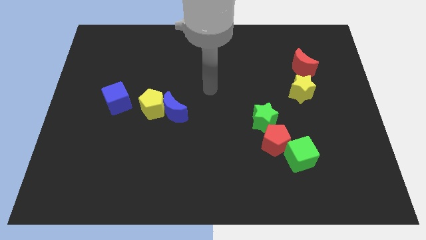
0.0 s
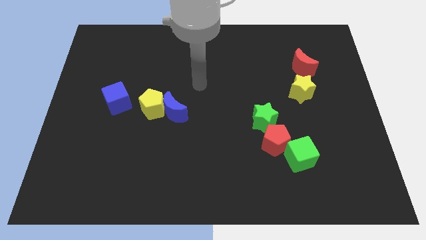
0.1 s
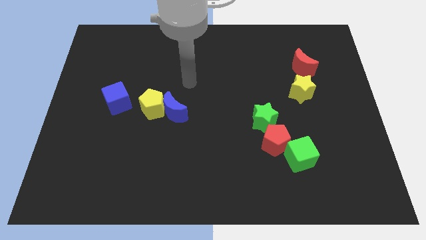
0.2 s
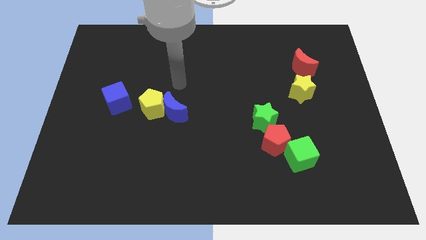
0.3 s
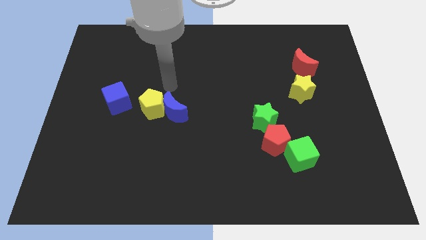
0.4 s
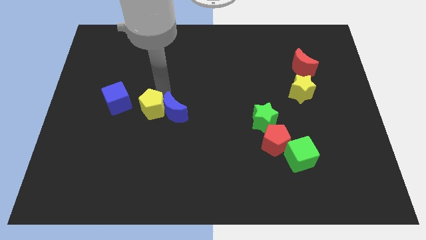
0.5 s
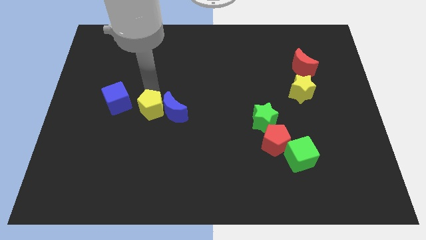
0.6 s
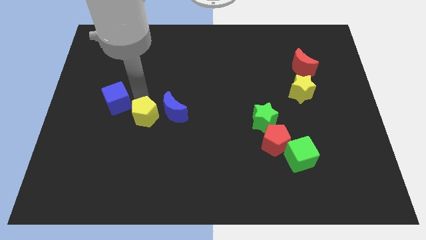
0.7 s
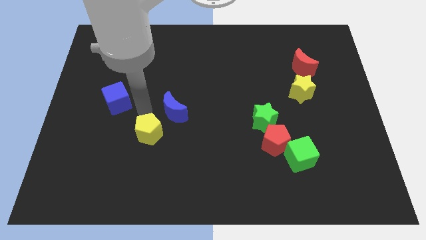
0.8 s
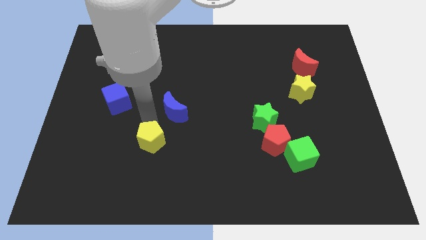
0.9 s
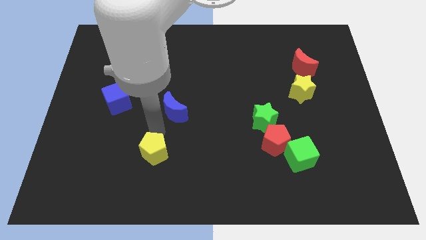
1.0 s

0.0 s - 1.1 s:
separate the blue moon from the yellow pentagon

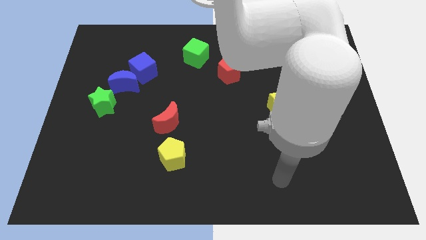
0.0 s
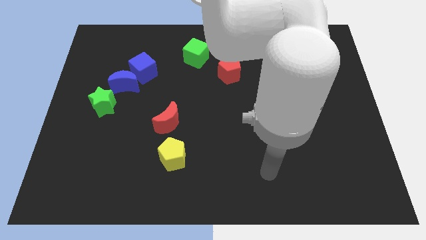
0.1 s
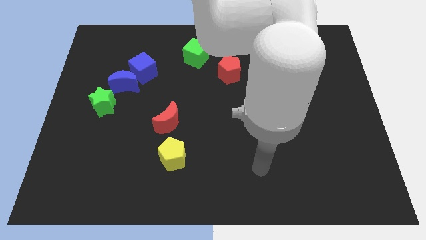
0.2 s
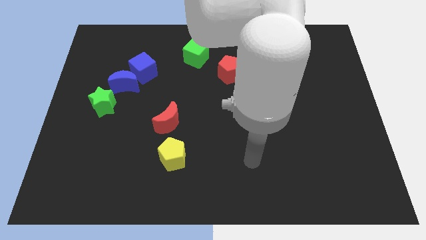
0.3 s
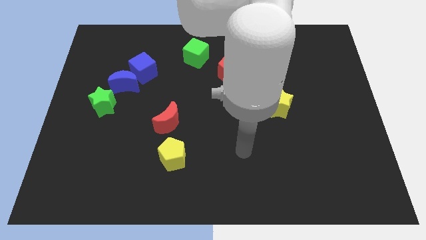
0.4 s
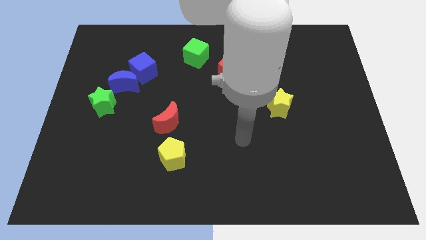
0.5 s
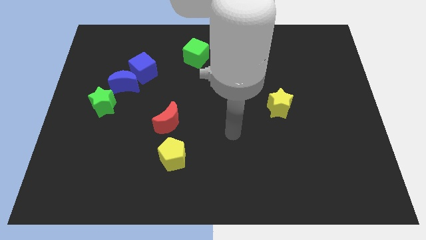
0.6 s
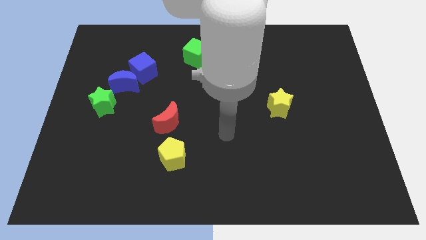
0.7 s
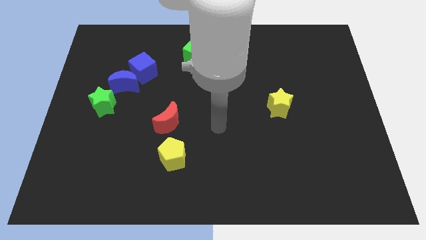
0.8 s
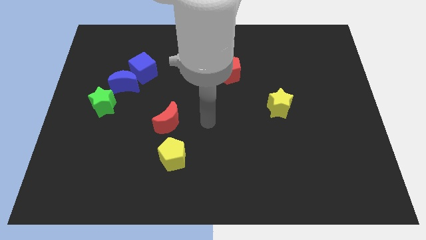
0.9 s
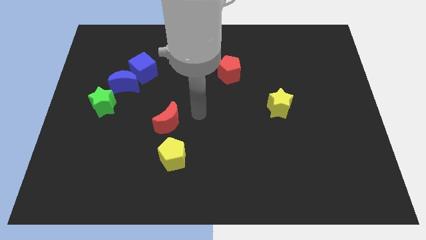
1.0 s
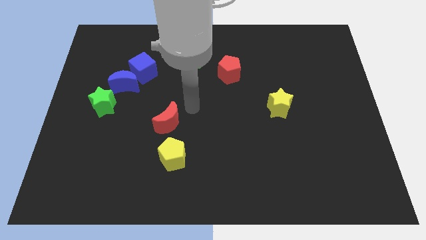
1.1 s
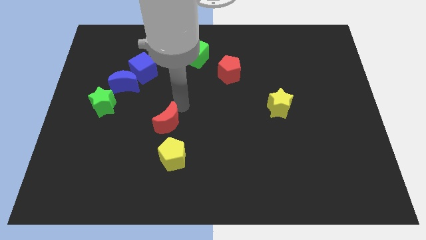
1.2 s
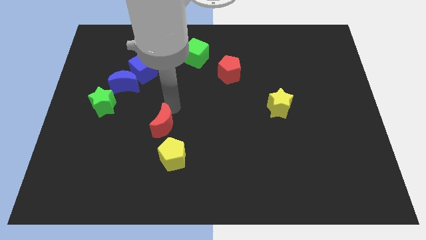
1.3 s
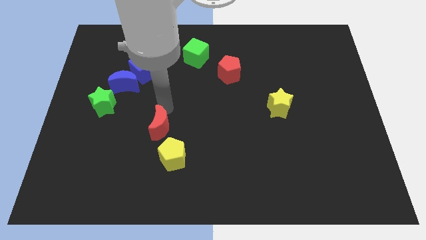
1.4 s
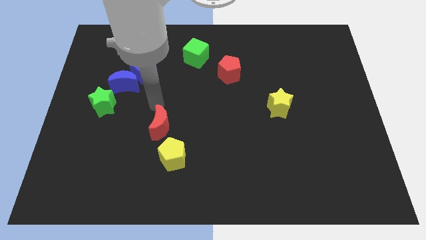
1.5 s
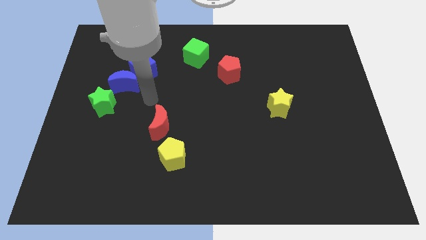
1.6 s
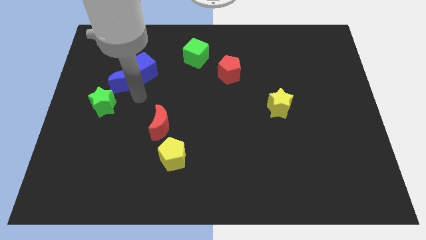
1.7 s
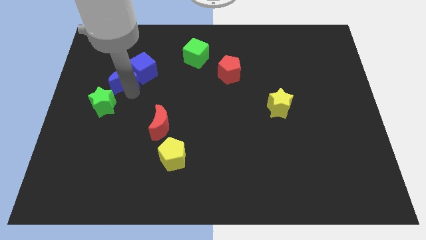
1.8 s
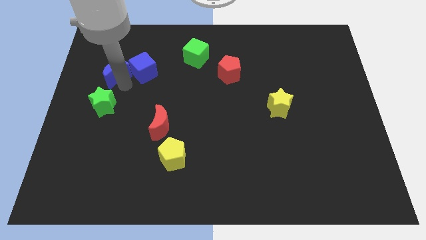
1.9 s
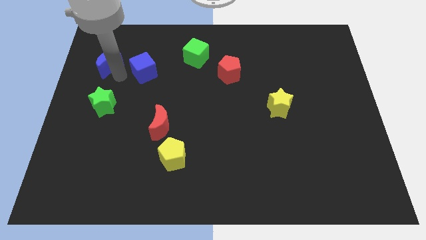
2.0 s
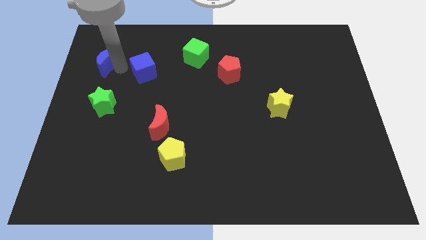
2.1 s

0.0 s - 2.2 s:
move the blue cube away from the blue moon

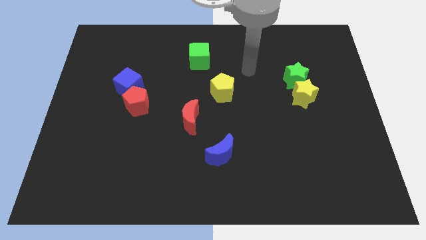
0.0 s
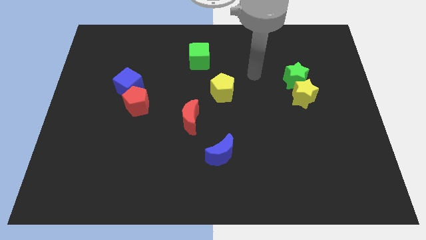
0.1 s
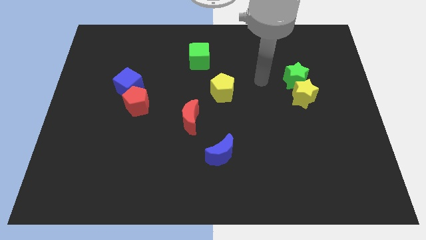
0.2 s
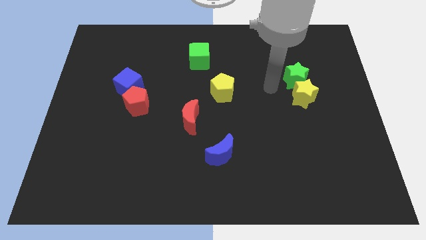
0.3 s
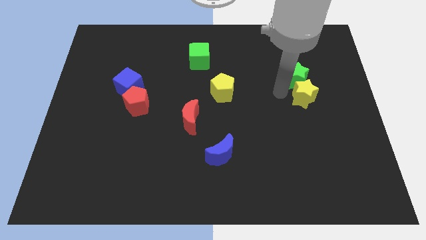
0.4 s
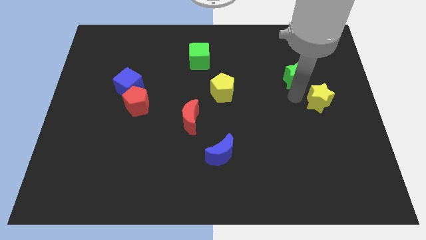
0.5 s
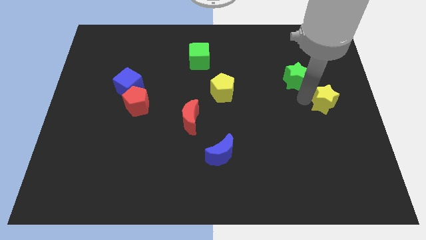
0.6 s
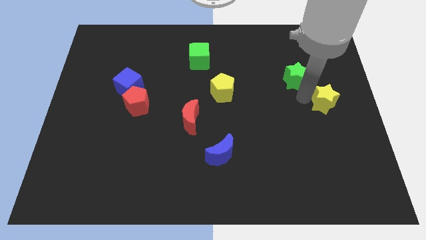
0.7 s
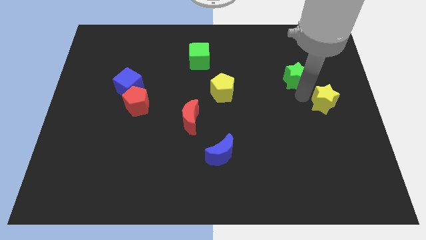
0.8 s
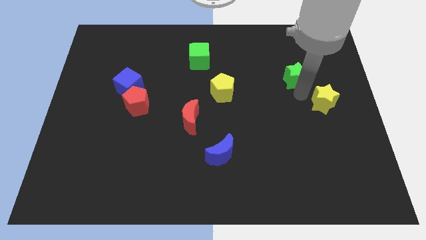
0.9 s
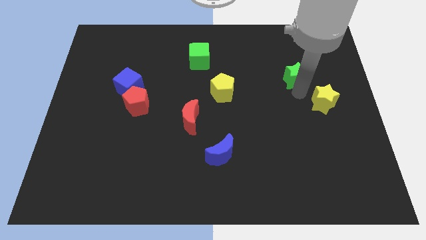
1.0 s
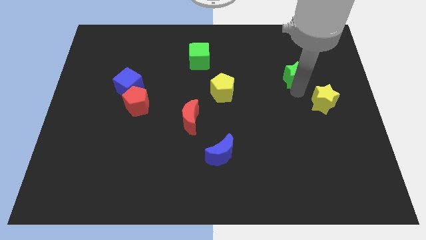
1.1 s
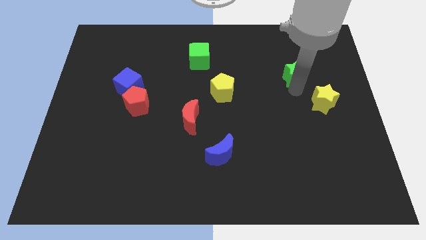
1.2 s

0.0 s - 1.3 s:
pull the green star apart from the yellow star

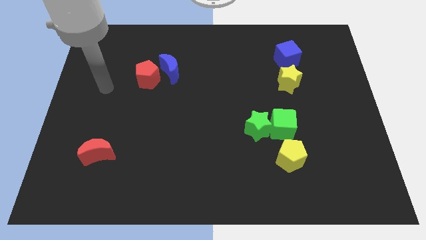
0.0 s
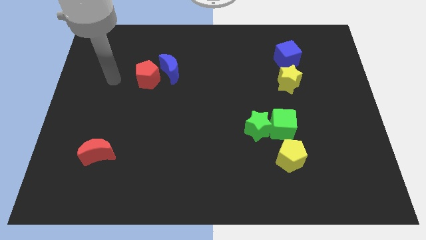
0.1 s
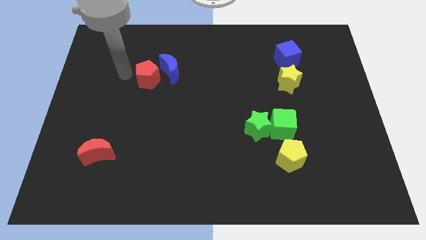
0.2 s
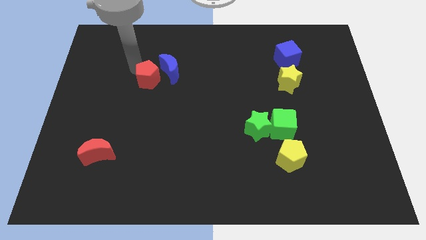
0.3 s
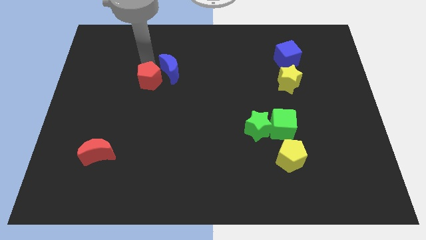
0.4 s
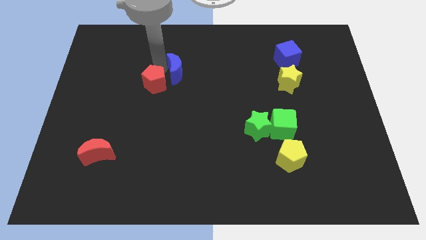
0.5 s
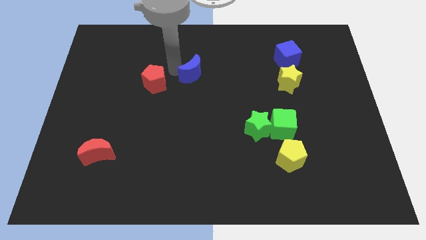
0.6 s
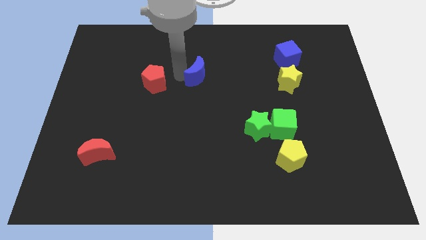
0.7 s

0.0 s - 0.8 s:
move the red pentagon away from the blue moon

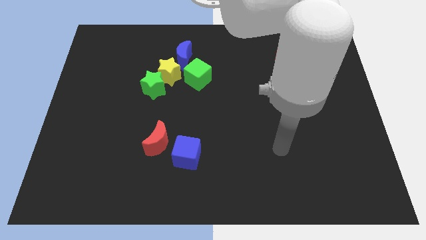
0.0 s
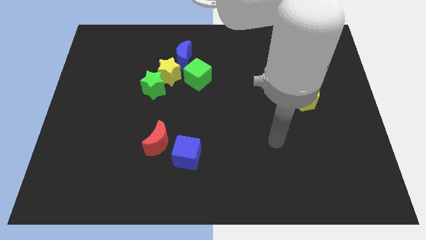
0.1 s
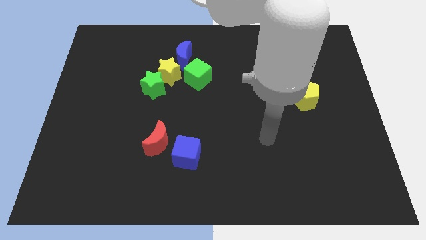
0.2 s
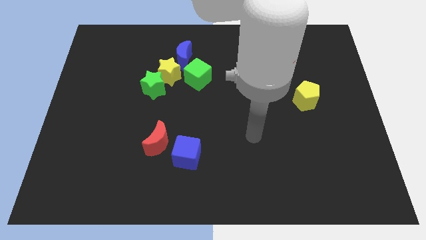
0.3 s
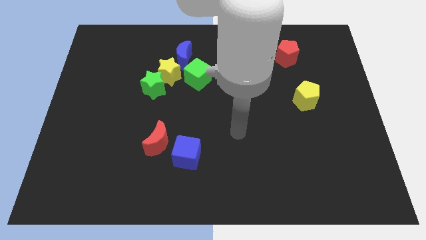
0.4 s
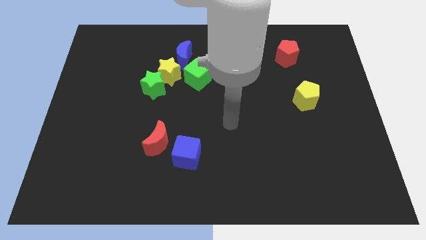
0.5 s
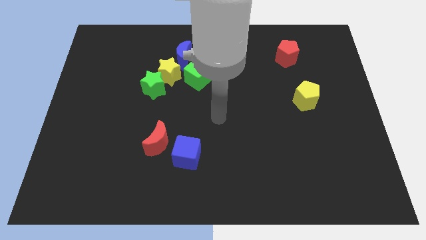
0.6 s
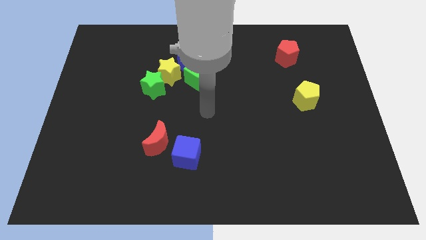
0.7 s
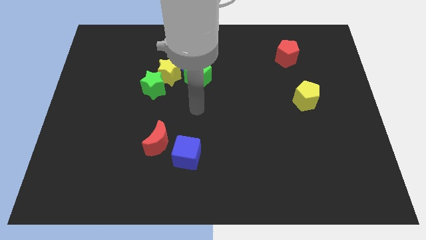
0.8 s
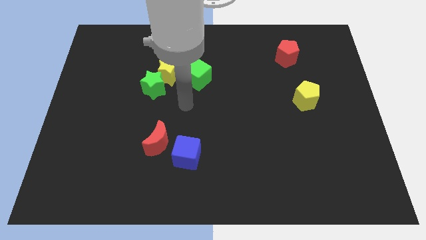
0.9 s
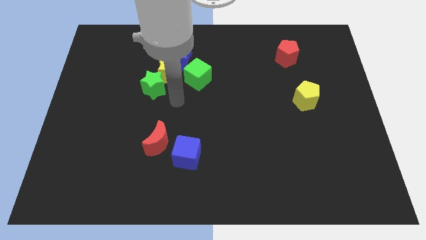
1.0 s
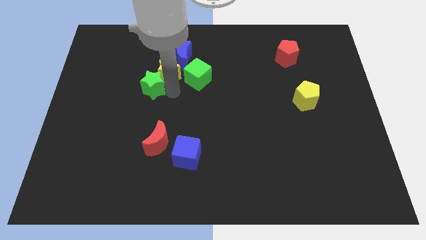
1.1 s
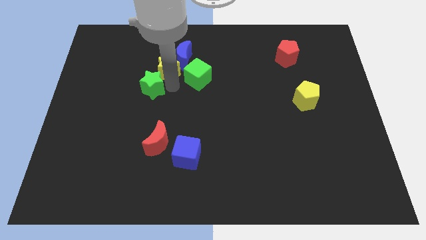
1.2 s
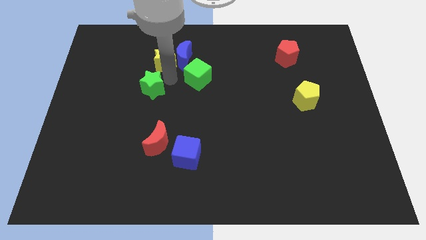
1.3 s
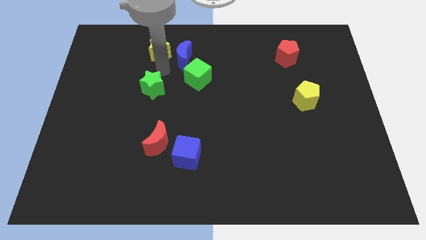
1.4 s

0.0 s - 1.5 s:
separate the green star from the yellow star

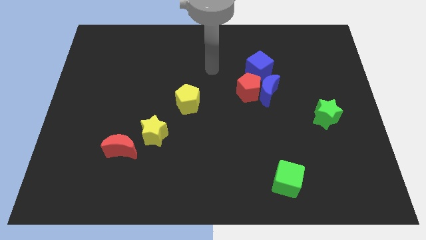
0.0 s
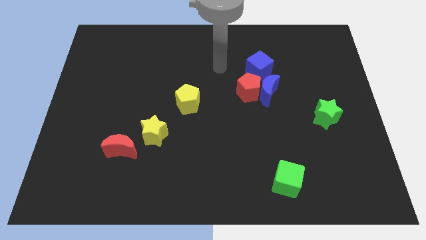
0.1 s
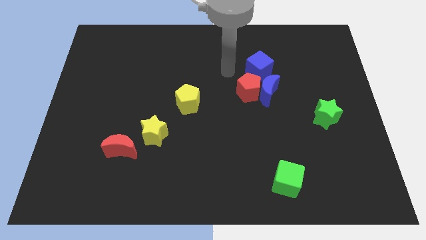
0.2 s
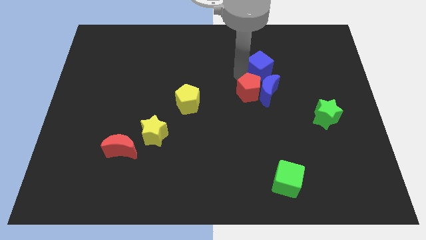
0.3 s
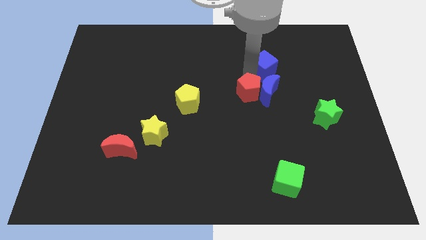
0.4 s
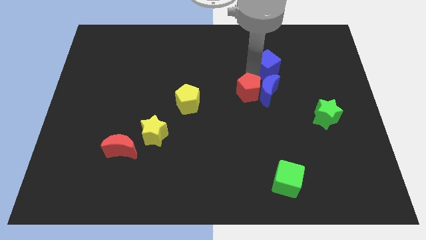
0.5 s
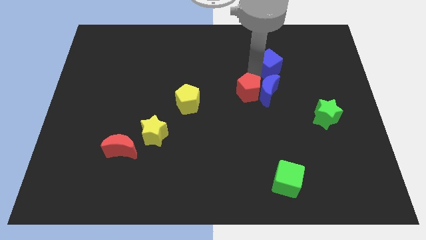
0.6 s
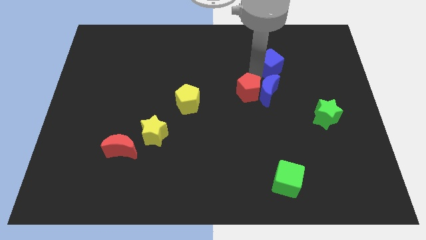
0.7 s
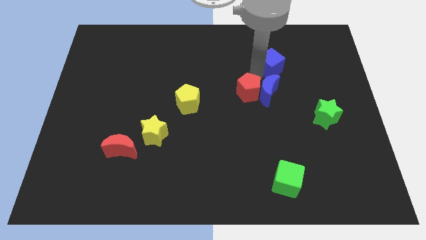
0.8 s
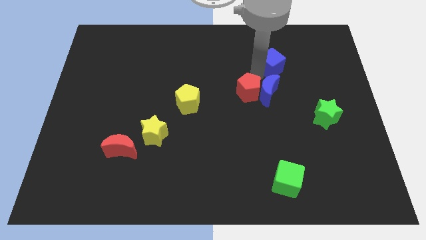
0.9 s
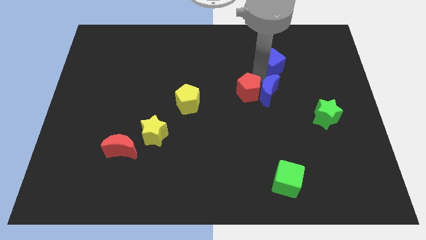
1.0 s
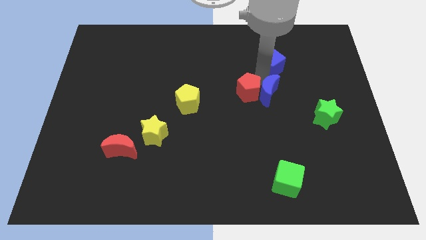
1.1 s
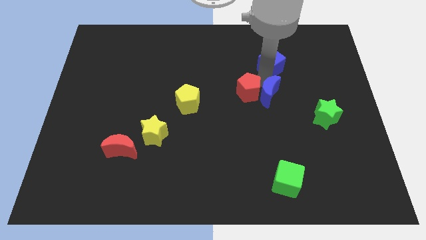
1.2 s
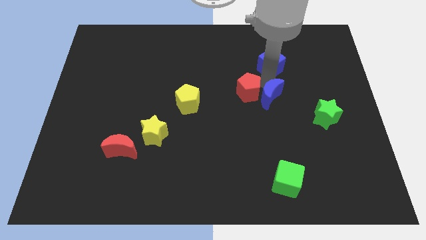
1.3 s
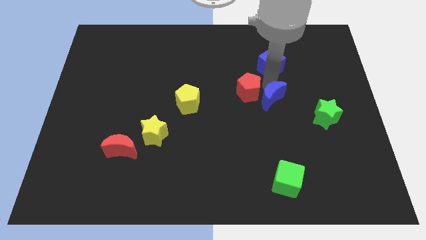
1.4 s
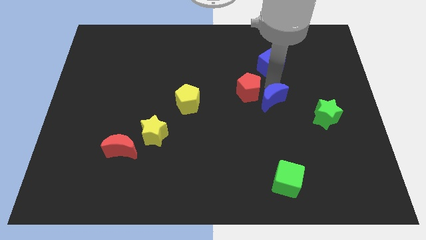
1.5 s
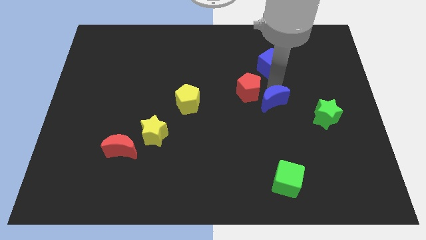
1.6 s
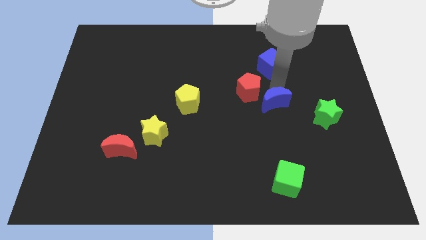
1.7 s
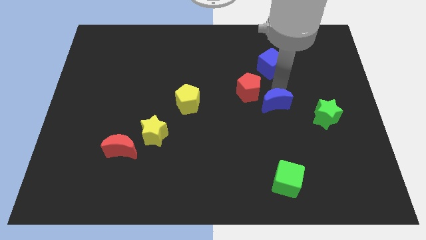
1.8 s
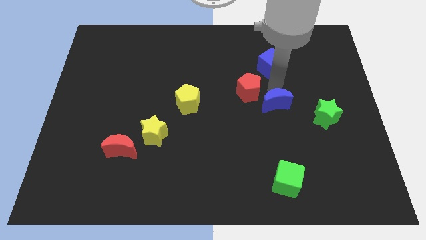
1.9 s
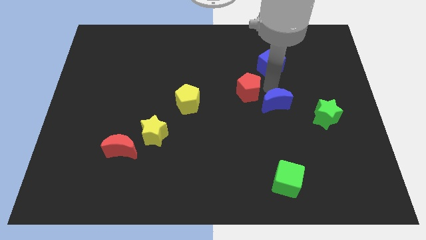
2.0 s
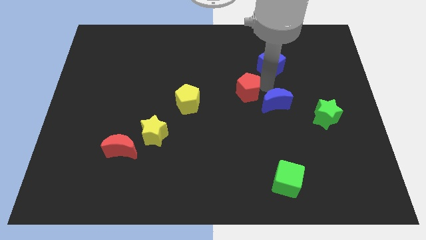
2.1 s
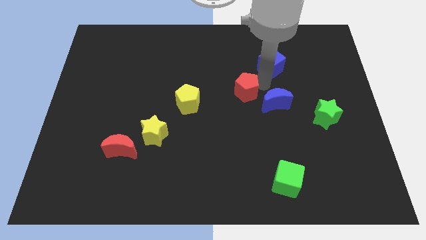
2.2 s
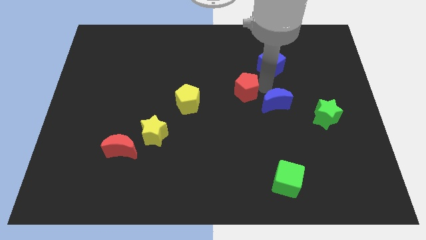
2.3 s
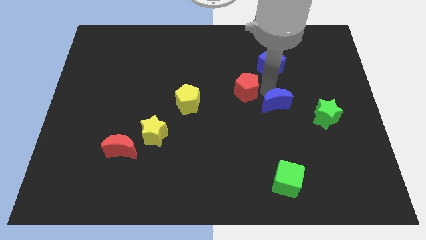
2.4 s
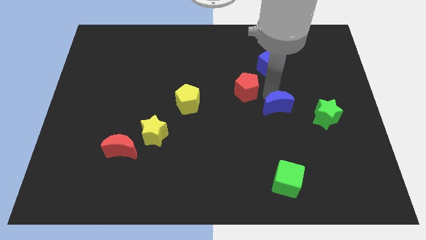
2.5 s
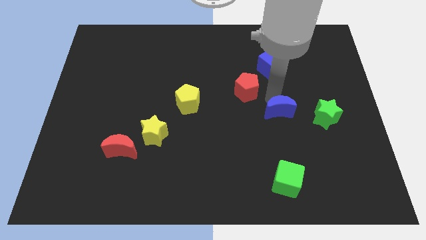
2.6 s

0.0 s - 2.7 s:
separate the blue moon from the red pentagon and blue cube
